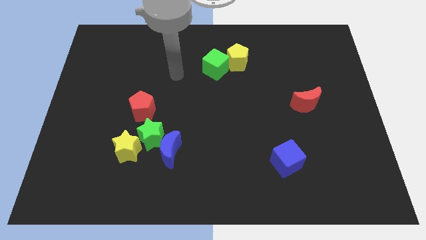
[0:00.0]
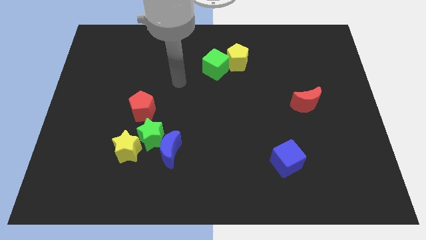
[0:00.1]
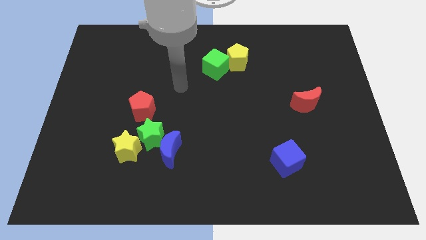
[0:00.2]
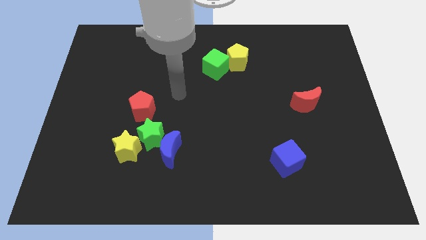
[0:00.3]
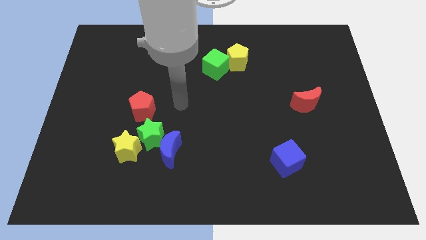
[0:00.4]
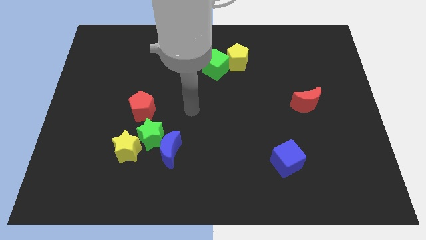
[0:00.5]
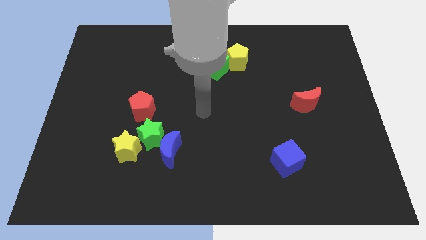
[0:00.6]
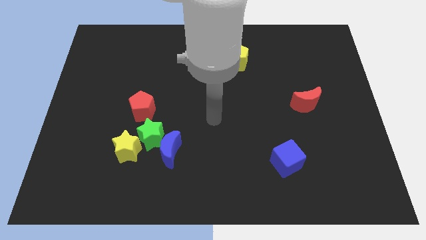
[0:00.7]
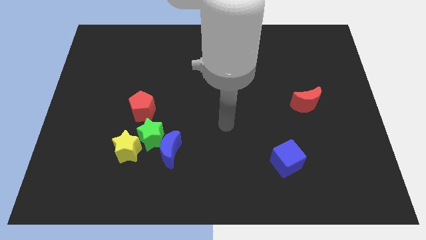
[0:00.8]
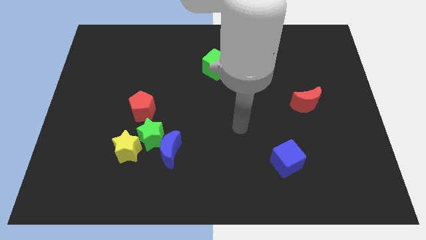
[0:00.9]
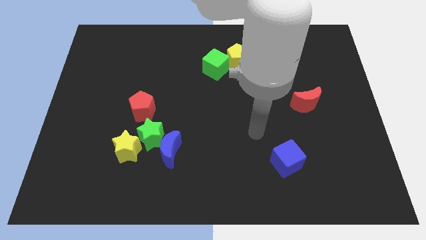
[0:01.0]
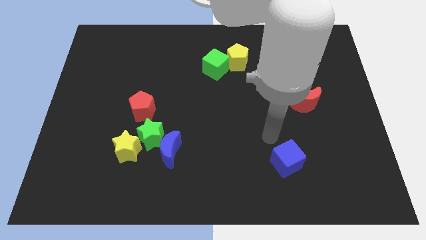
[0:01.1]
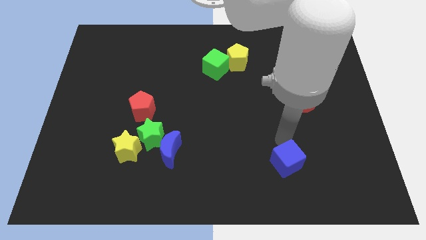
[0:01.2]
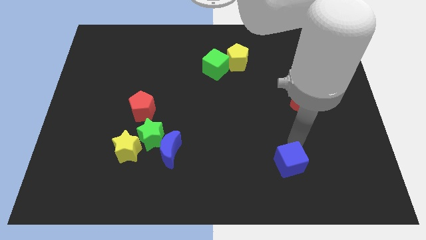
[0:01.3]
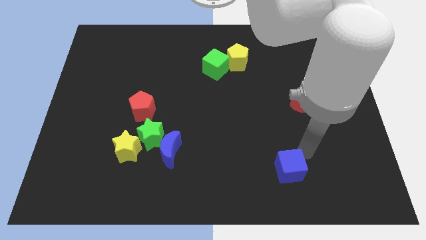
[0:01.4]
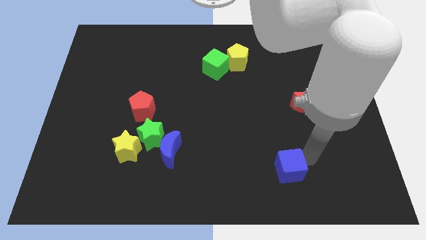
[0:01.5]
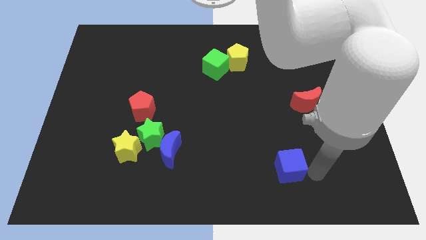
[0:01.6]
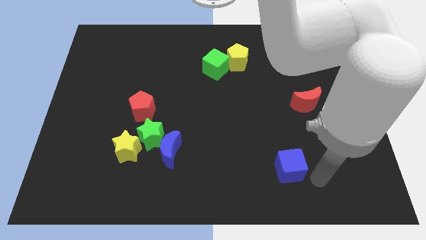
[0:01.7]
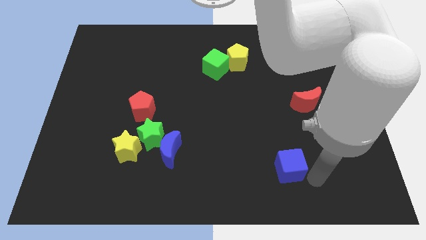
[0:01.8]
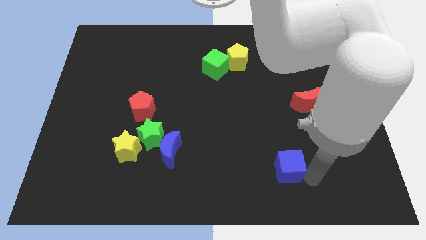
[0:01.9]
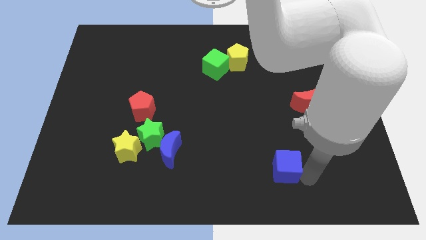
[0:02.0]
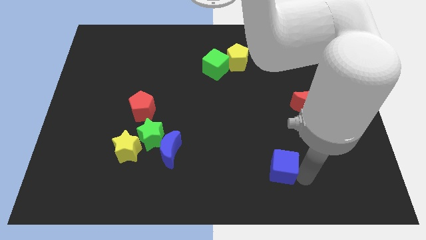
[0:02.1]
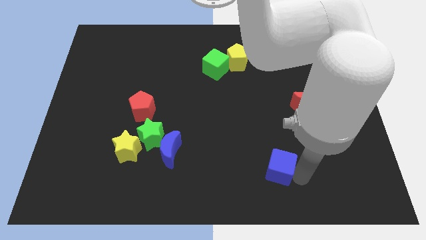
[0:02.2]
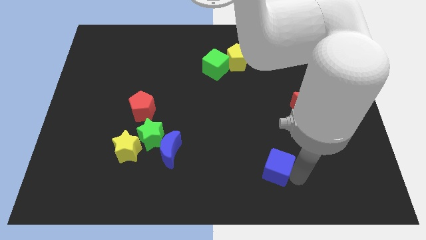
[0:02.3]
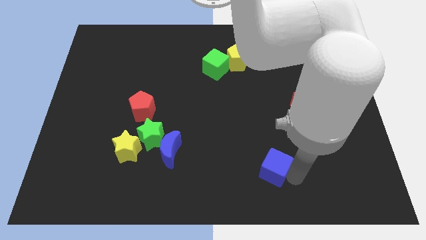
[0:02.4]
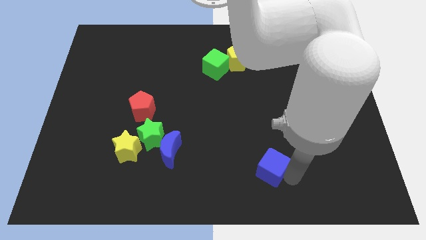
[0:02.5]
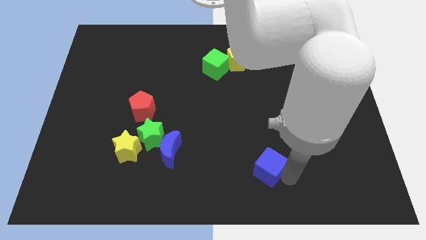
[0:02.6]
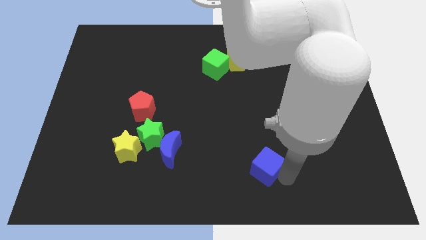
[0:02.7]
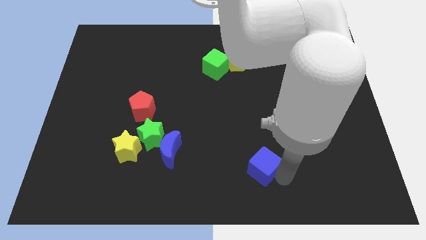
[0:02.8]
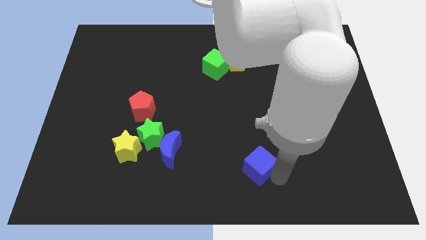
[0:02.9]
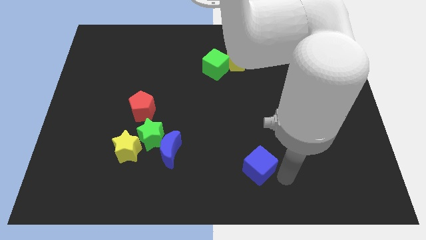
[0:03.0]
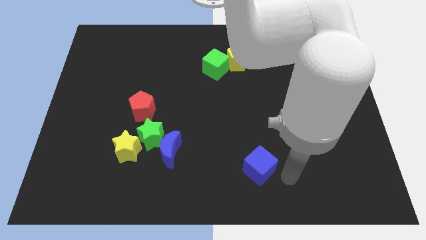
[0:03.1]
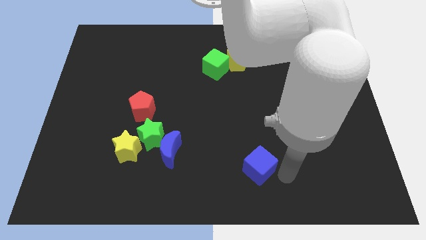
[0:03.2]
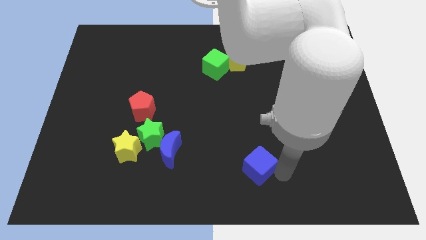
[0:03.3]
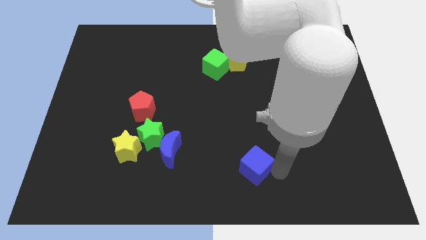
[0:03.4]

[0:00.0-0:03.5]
push the blue cube somewhat left

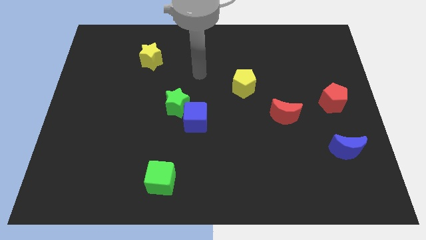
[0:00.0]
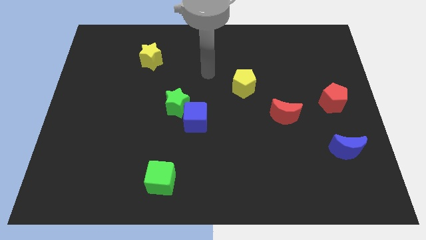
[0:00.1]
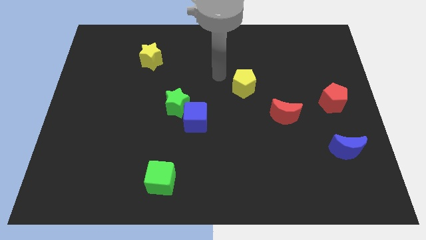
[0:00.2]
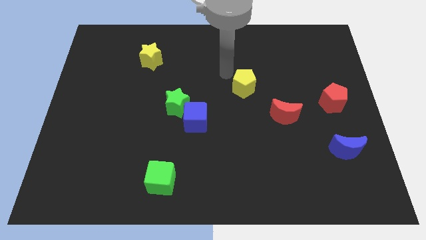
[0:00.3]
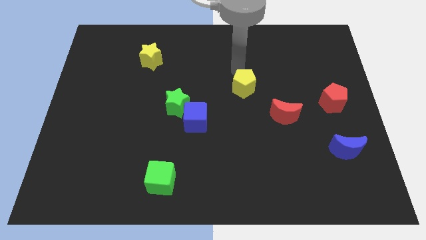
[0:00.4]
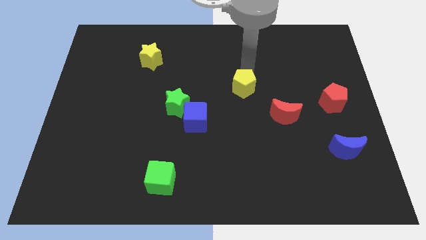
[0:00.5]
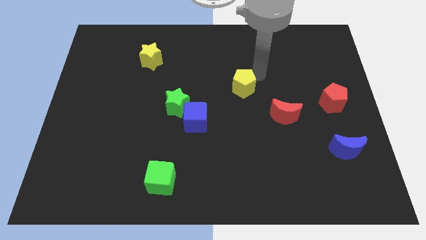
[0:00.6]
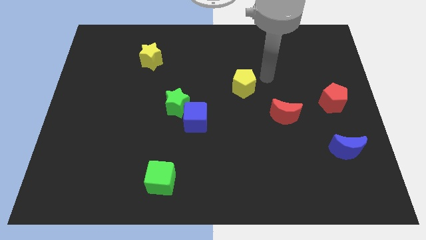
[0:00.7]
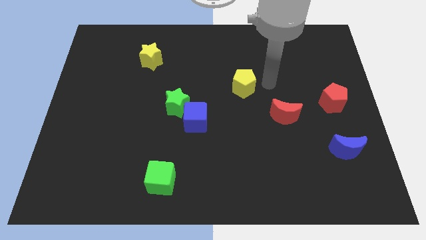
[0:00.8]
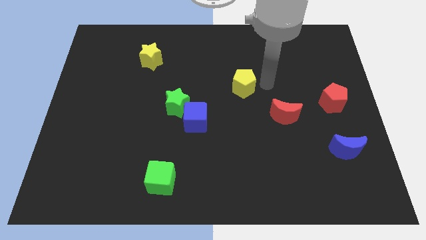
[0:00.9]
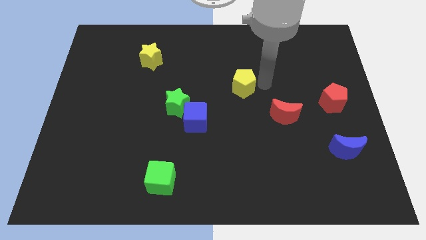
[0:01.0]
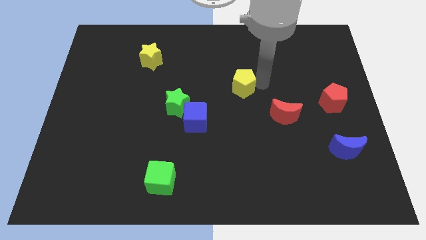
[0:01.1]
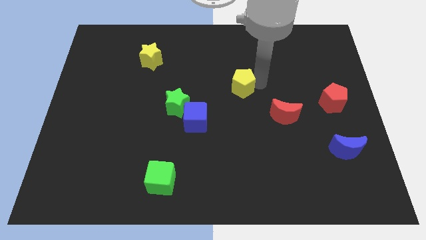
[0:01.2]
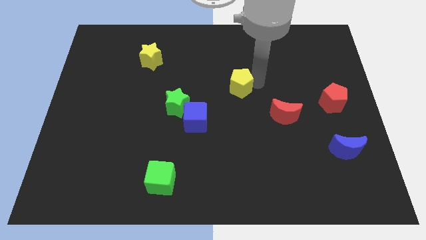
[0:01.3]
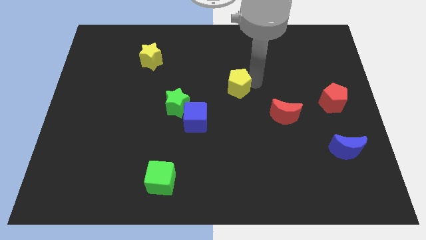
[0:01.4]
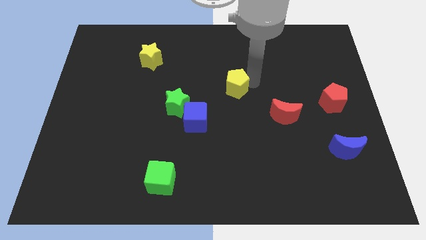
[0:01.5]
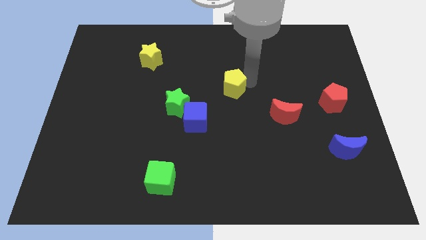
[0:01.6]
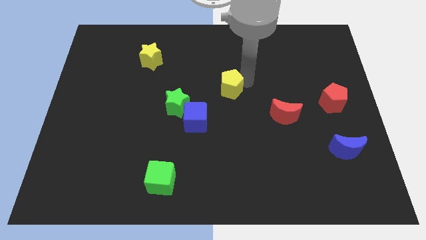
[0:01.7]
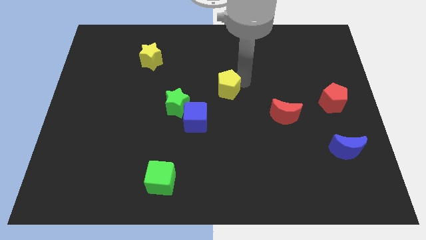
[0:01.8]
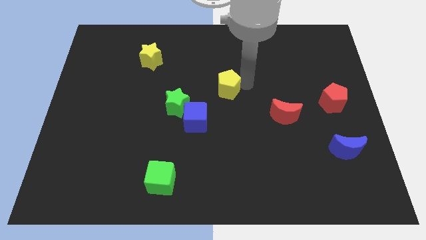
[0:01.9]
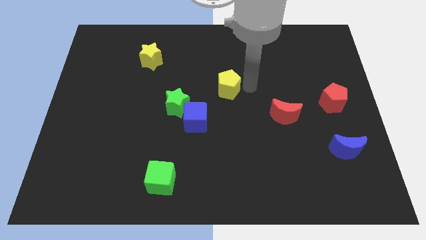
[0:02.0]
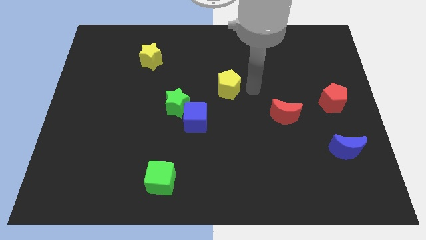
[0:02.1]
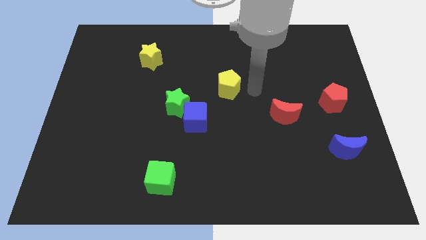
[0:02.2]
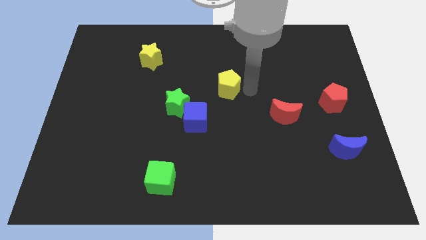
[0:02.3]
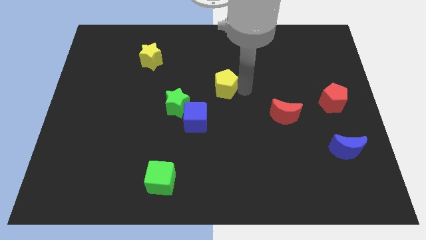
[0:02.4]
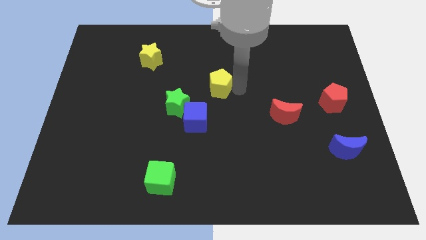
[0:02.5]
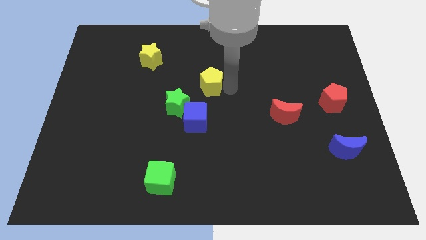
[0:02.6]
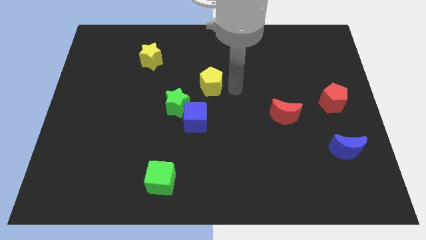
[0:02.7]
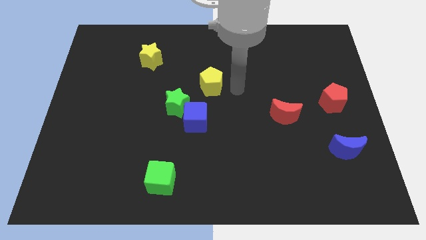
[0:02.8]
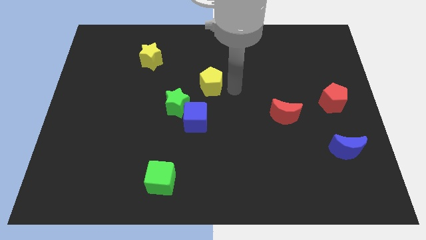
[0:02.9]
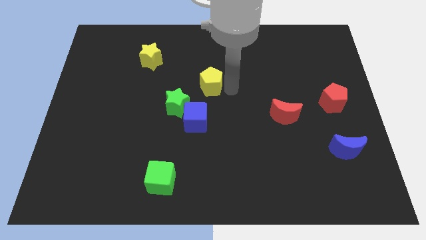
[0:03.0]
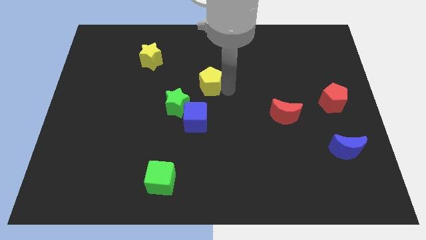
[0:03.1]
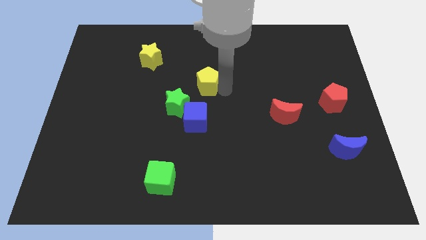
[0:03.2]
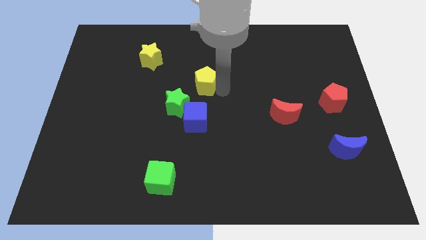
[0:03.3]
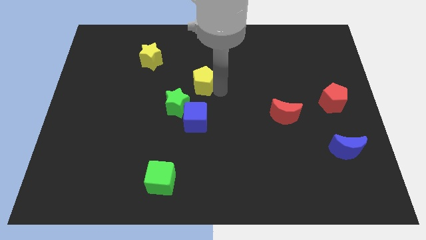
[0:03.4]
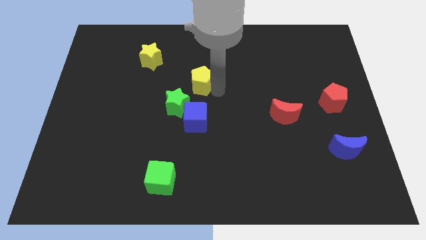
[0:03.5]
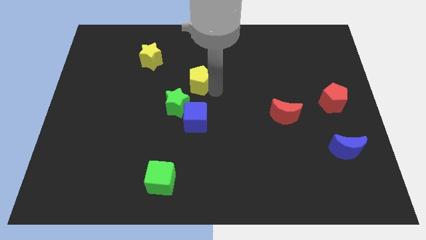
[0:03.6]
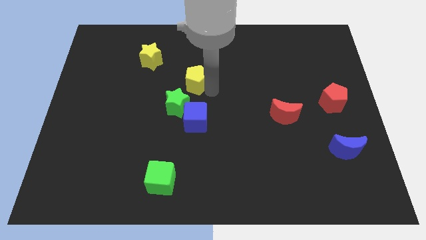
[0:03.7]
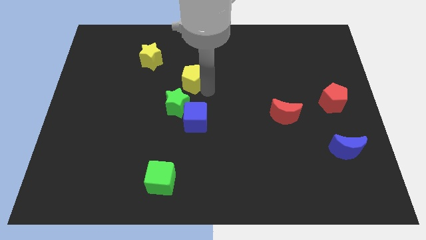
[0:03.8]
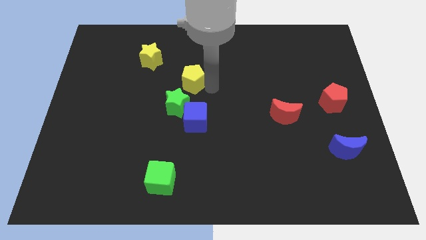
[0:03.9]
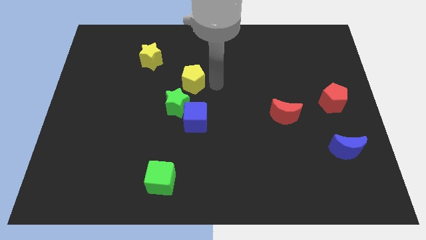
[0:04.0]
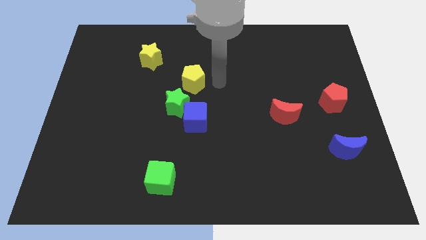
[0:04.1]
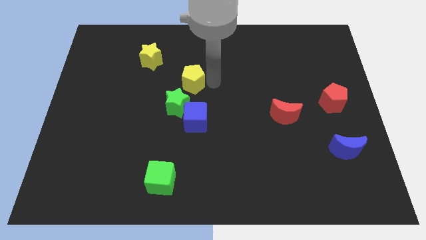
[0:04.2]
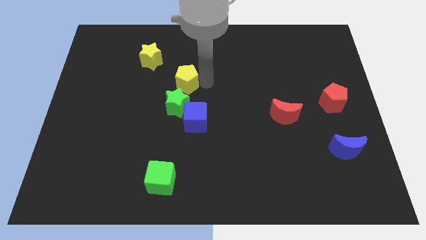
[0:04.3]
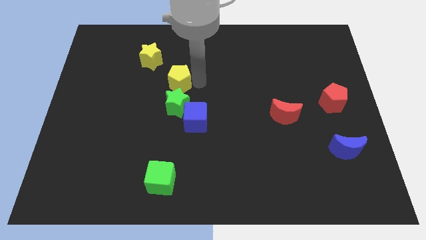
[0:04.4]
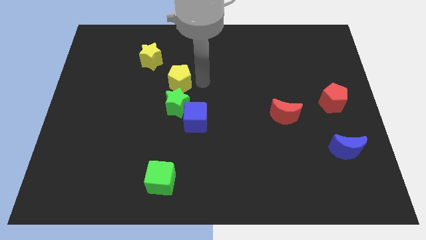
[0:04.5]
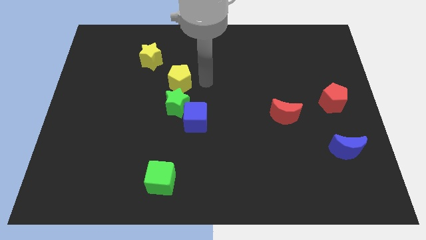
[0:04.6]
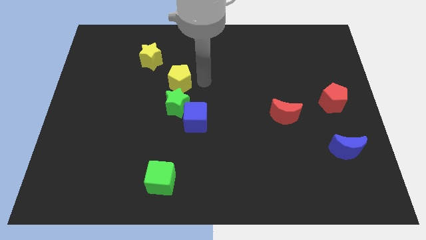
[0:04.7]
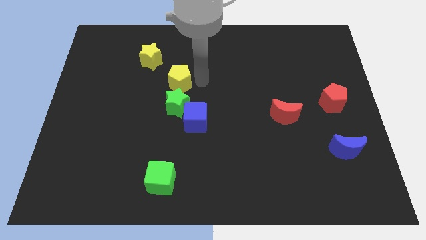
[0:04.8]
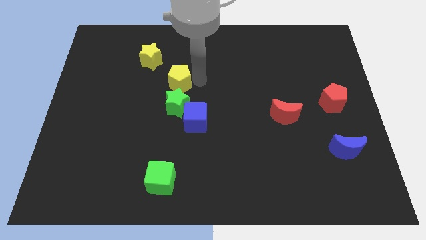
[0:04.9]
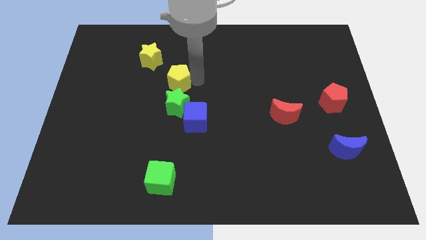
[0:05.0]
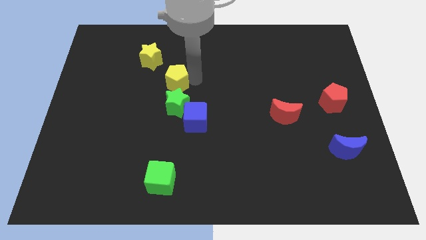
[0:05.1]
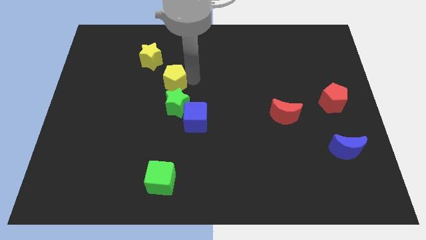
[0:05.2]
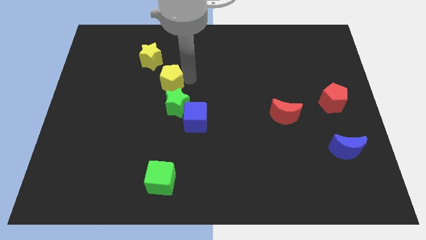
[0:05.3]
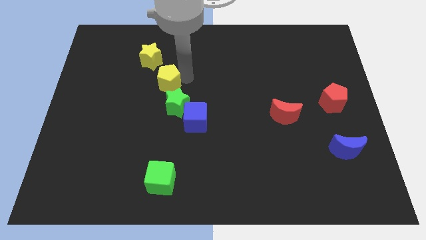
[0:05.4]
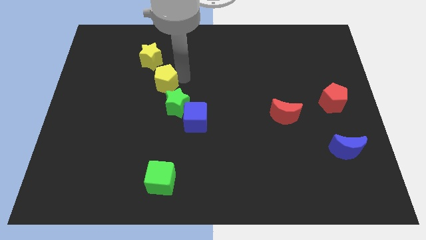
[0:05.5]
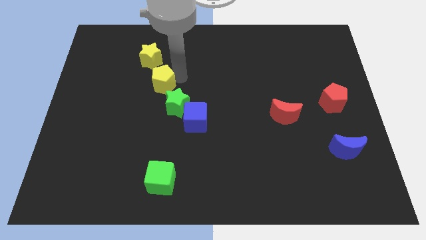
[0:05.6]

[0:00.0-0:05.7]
move the yellow pentagon left
